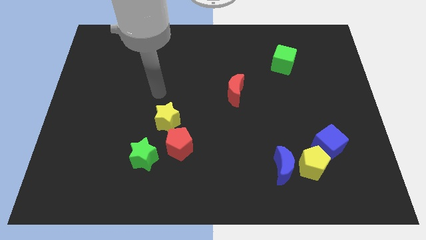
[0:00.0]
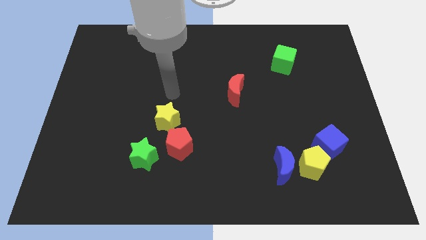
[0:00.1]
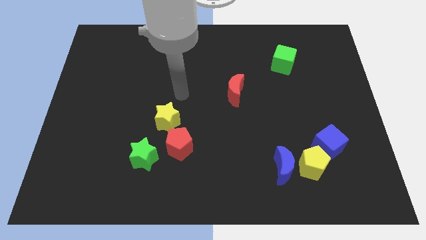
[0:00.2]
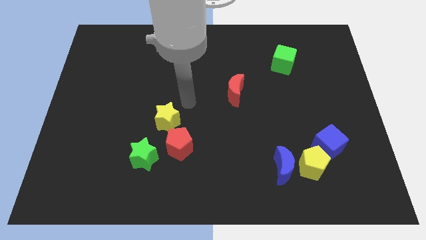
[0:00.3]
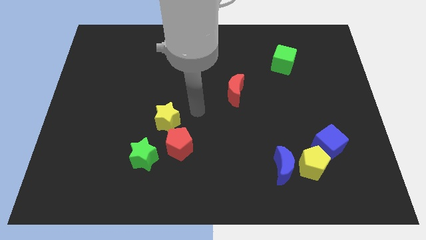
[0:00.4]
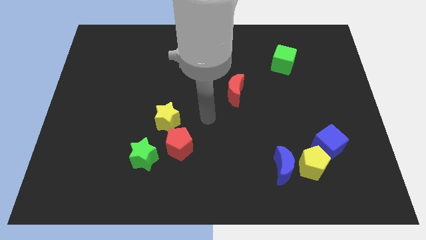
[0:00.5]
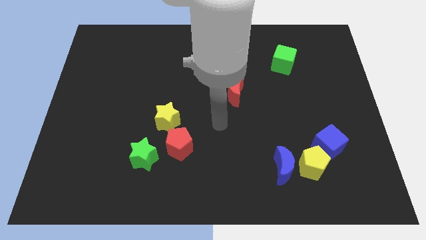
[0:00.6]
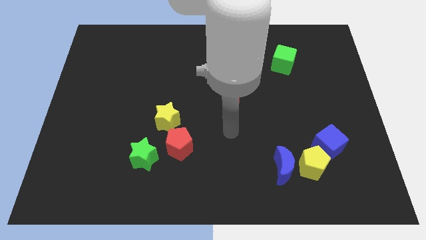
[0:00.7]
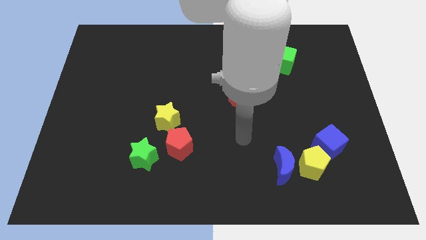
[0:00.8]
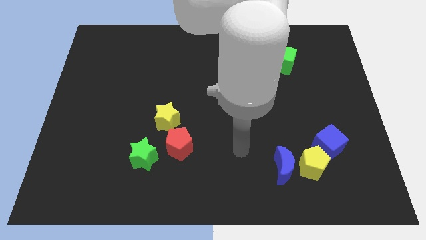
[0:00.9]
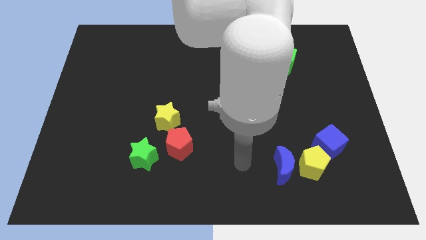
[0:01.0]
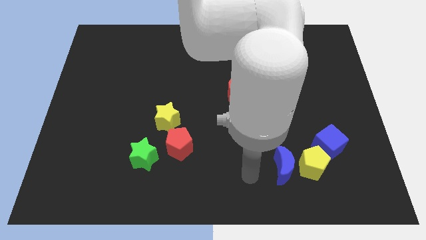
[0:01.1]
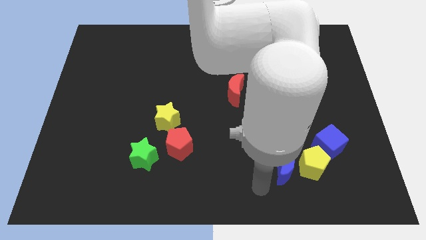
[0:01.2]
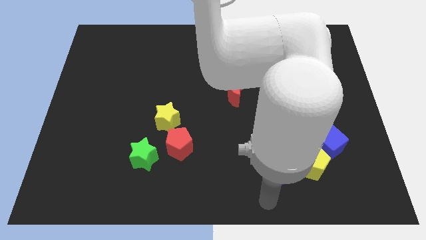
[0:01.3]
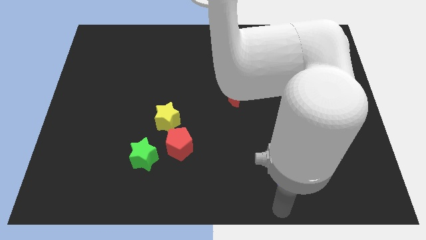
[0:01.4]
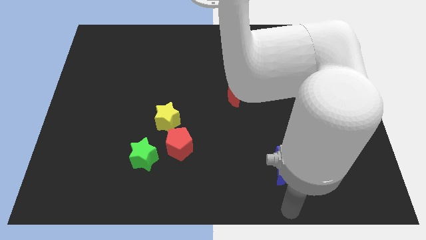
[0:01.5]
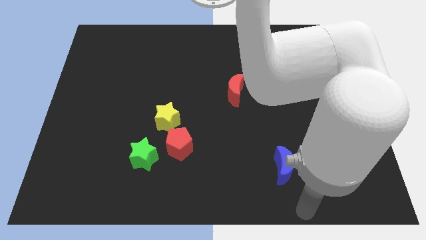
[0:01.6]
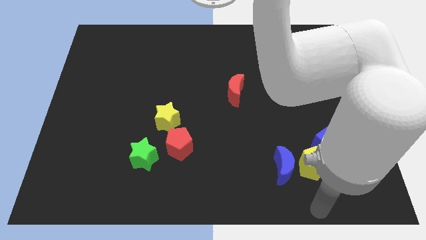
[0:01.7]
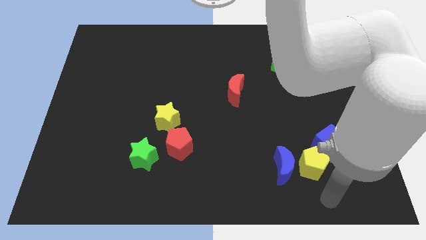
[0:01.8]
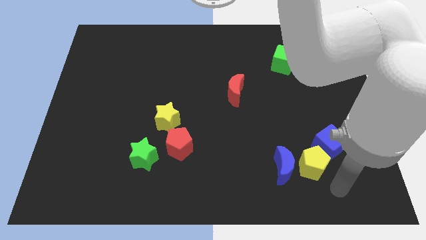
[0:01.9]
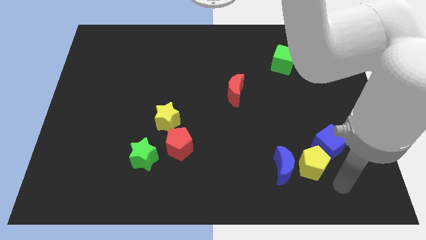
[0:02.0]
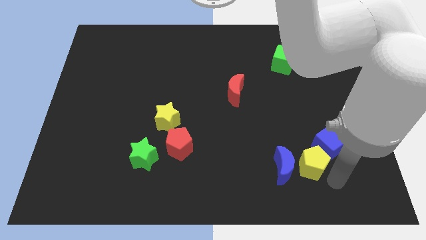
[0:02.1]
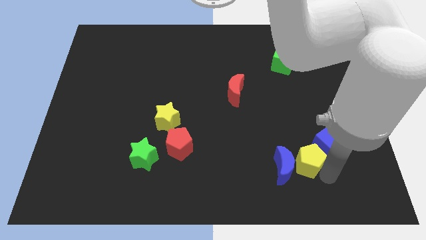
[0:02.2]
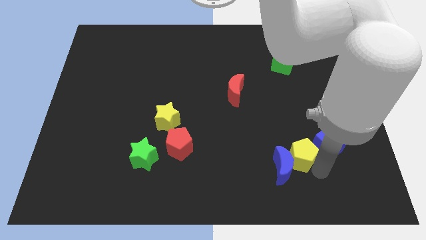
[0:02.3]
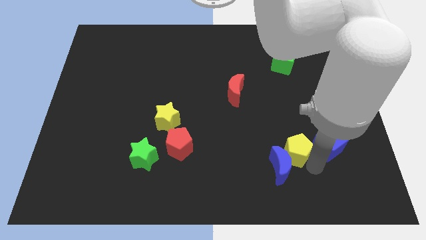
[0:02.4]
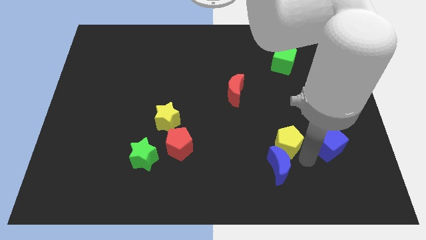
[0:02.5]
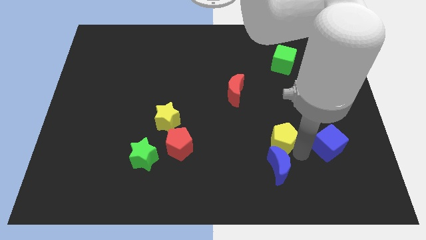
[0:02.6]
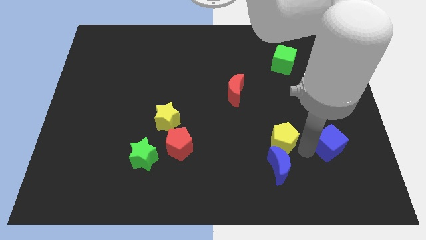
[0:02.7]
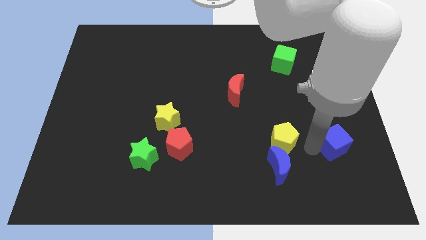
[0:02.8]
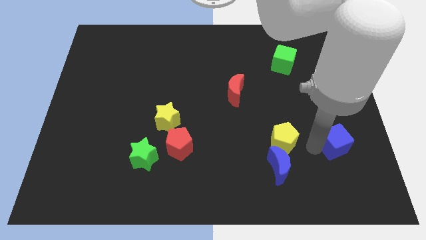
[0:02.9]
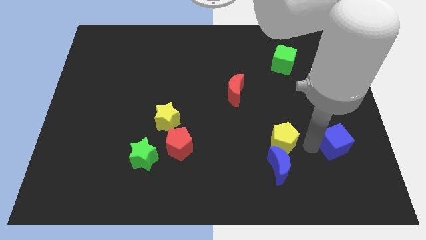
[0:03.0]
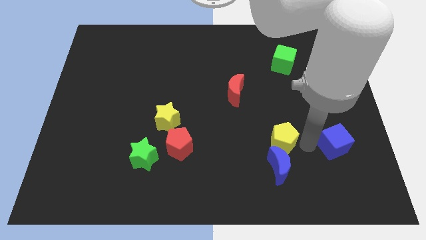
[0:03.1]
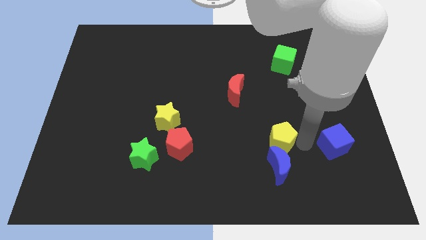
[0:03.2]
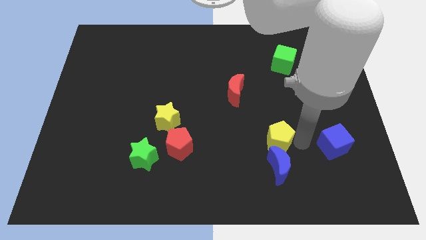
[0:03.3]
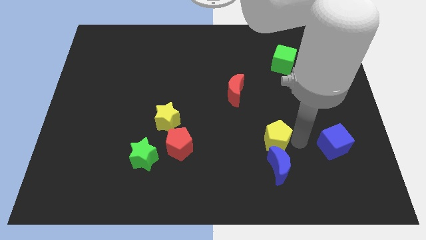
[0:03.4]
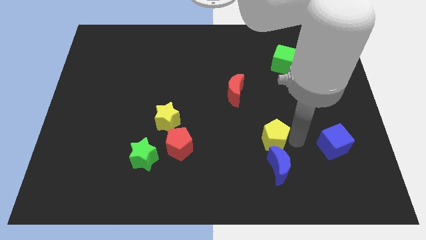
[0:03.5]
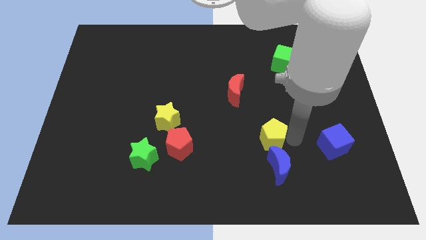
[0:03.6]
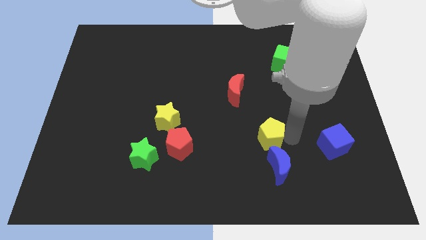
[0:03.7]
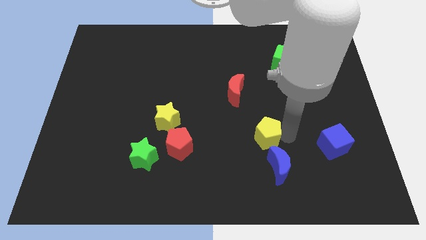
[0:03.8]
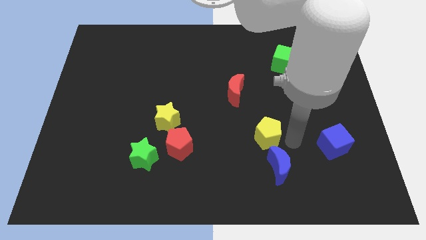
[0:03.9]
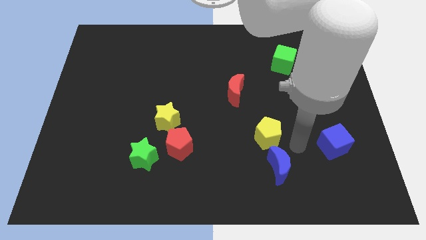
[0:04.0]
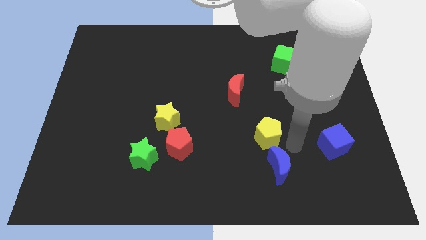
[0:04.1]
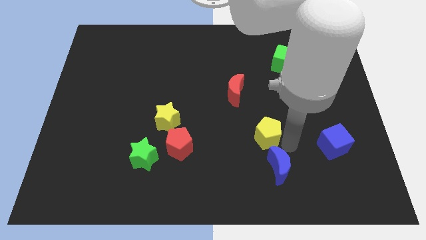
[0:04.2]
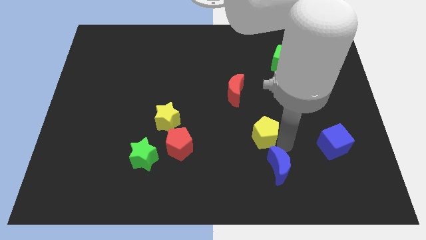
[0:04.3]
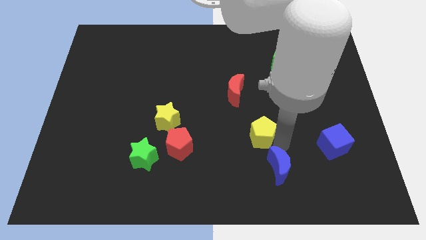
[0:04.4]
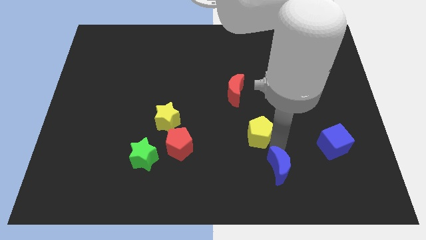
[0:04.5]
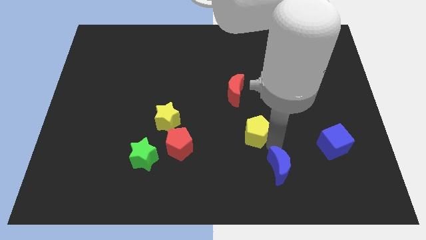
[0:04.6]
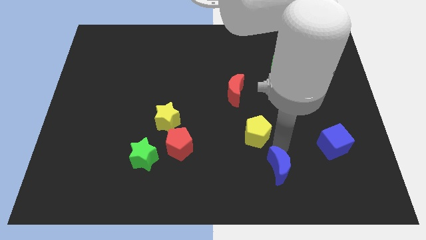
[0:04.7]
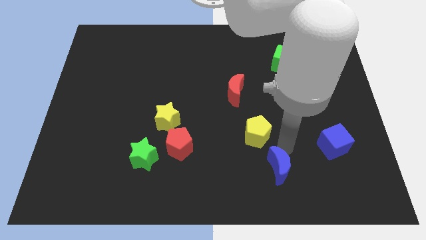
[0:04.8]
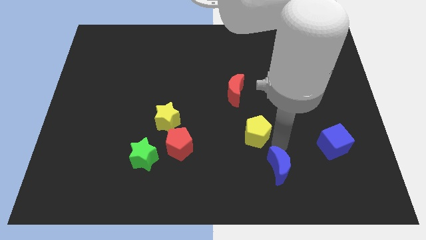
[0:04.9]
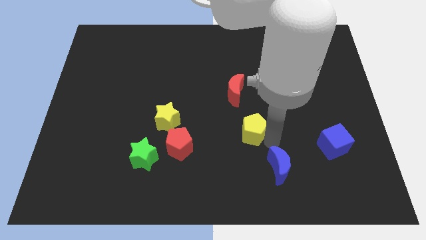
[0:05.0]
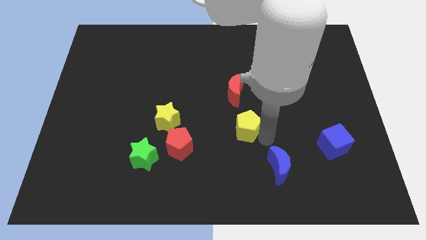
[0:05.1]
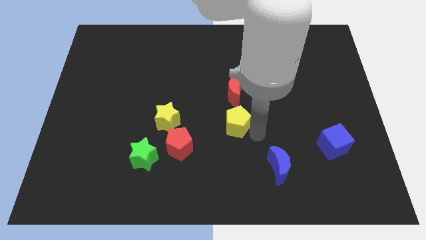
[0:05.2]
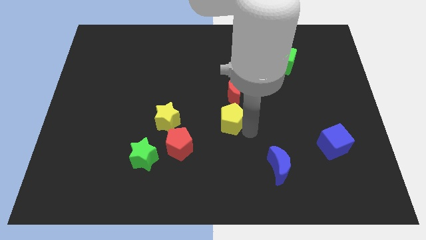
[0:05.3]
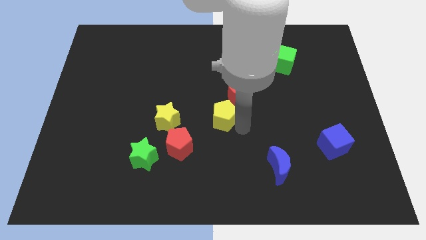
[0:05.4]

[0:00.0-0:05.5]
move the yellow pentagon to the bottom left of the red moon

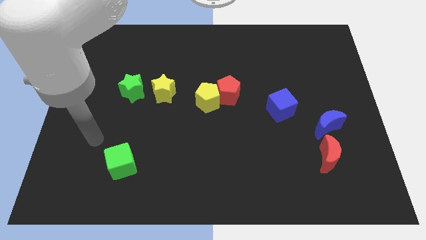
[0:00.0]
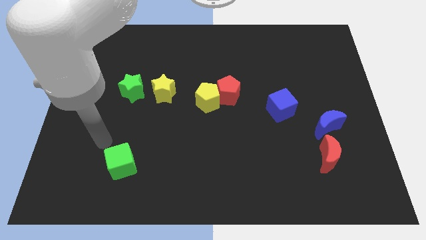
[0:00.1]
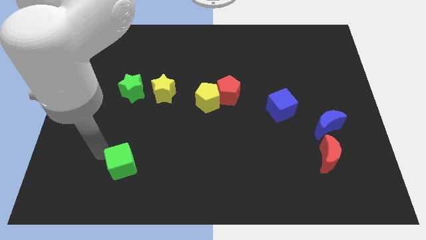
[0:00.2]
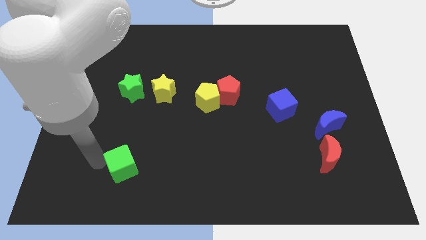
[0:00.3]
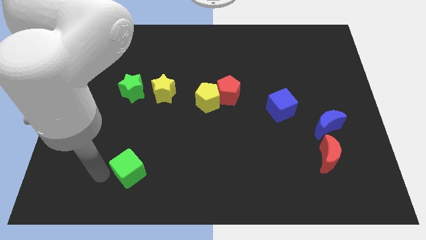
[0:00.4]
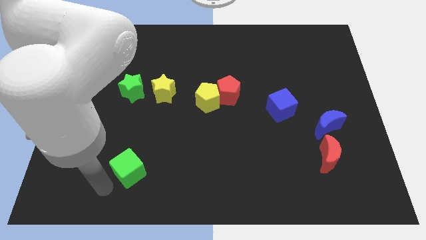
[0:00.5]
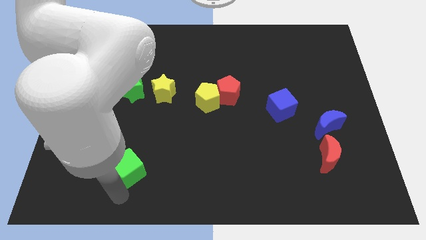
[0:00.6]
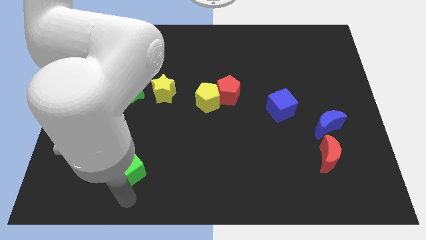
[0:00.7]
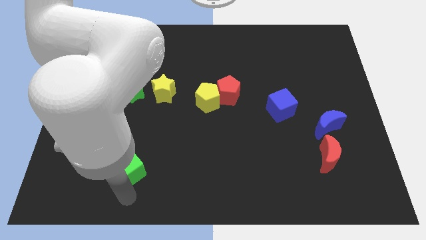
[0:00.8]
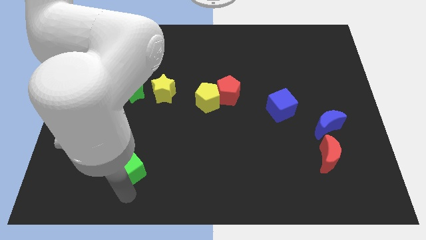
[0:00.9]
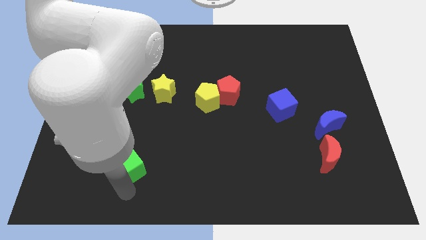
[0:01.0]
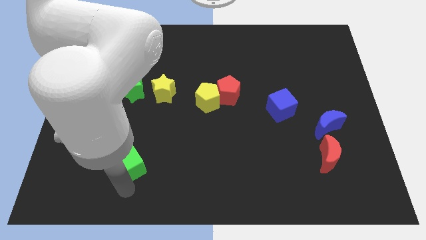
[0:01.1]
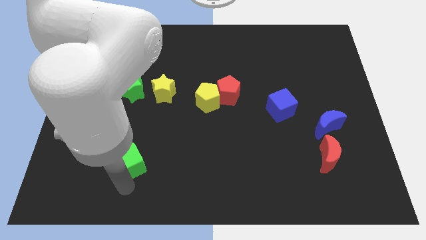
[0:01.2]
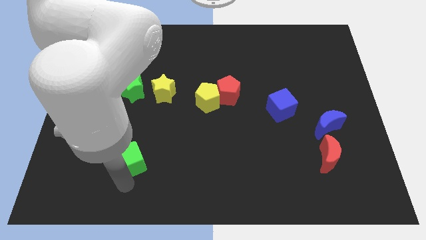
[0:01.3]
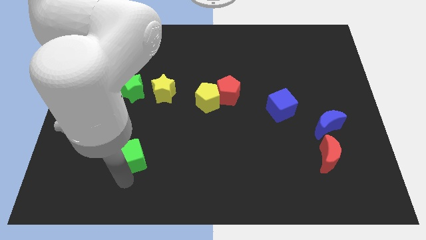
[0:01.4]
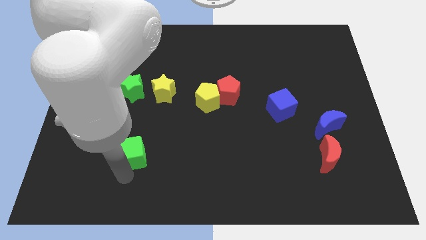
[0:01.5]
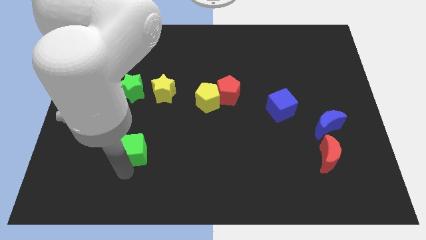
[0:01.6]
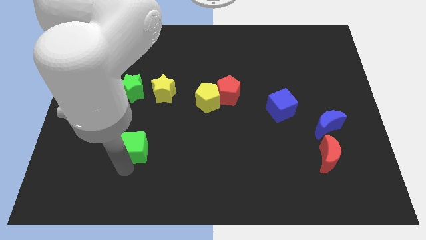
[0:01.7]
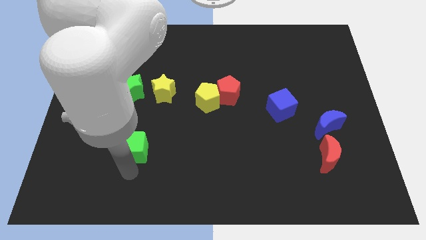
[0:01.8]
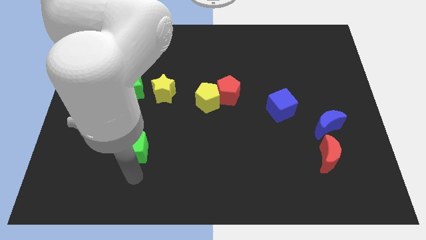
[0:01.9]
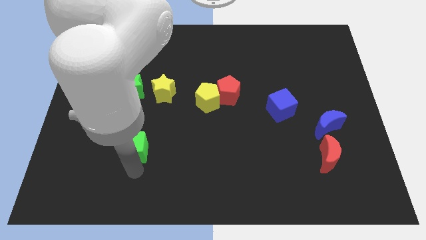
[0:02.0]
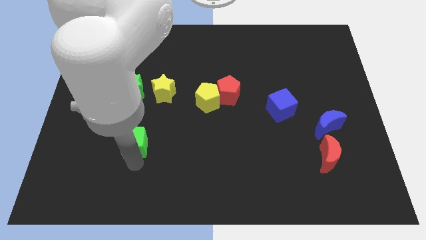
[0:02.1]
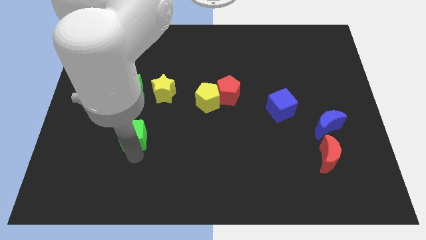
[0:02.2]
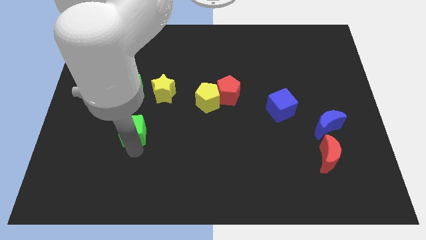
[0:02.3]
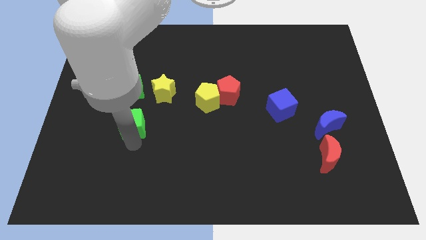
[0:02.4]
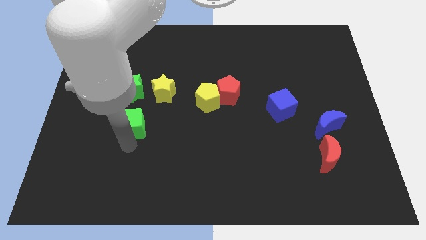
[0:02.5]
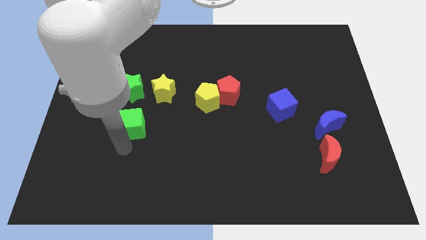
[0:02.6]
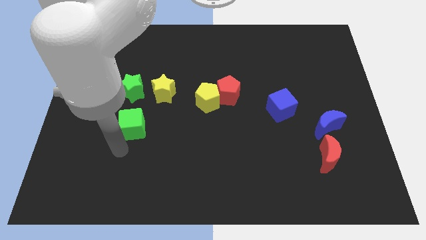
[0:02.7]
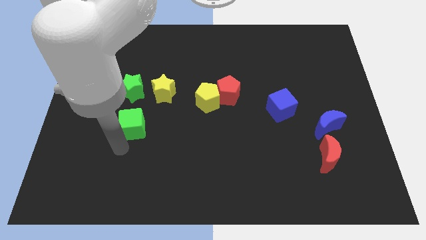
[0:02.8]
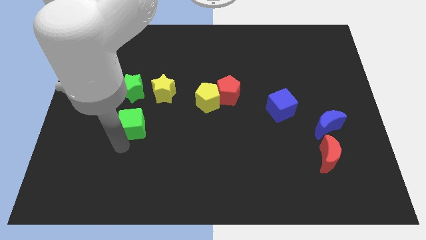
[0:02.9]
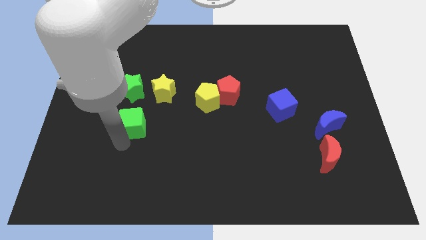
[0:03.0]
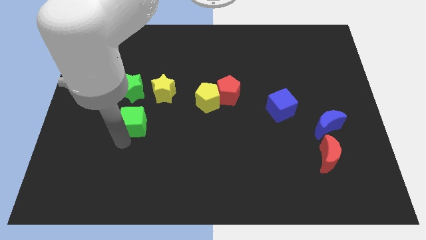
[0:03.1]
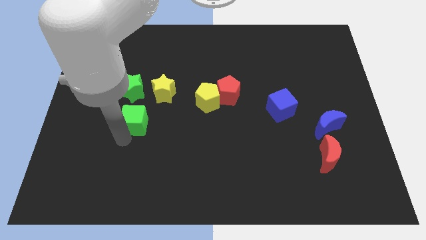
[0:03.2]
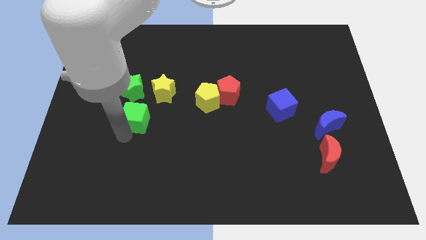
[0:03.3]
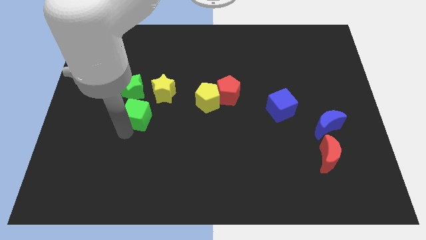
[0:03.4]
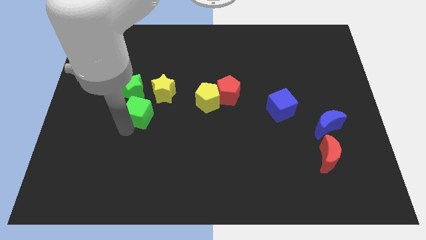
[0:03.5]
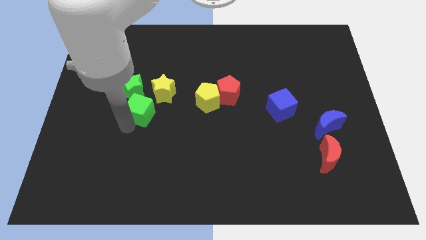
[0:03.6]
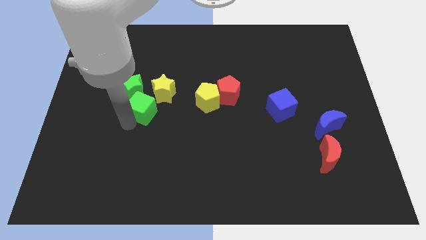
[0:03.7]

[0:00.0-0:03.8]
push the green cube to the left of the yellow pentagon
